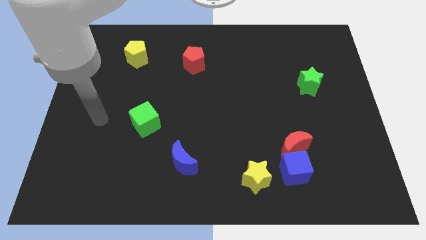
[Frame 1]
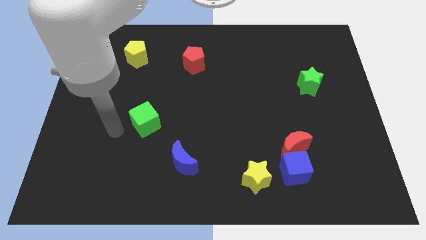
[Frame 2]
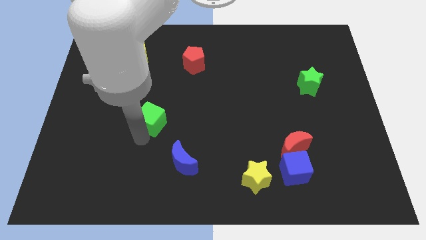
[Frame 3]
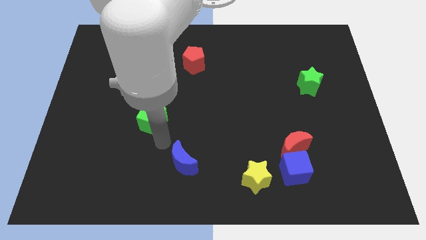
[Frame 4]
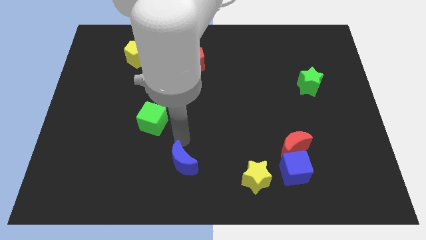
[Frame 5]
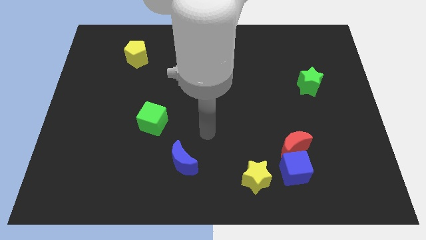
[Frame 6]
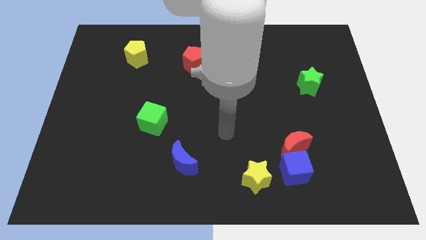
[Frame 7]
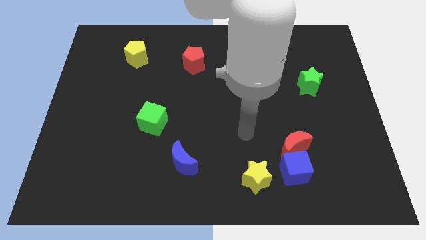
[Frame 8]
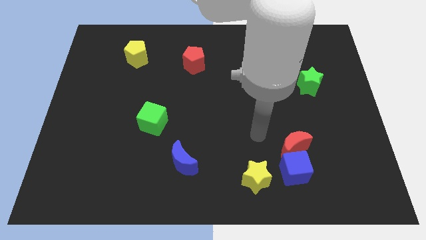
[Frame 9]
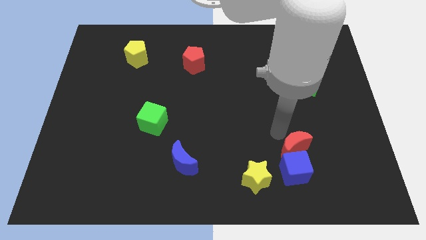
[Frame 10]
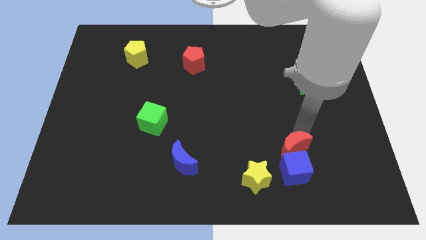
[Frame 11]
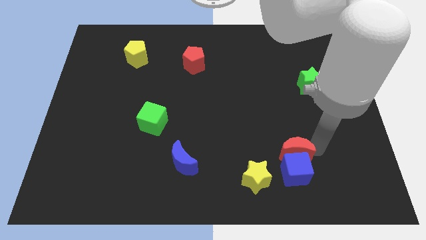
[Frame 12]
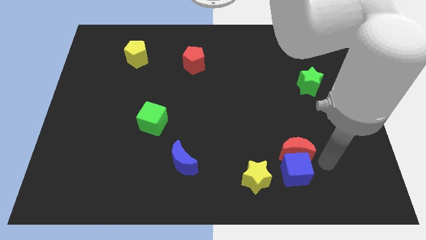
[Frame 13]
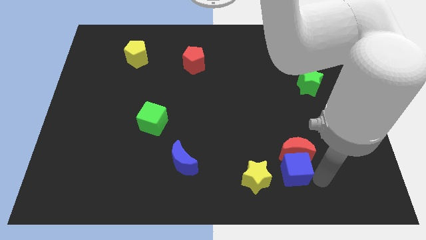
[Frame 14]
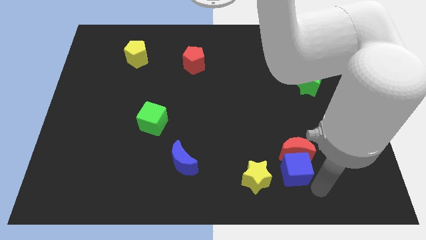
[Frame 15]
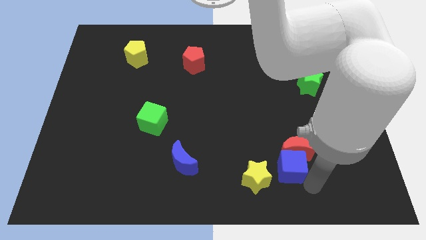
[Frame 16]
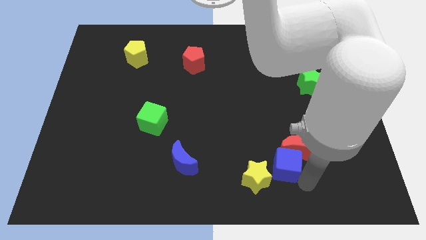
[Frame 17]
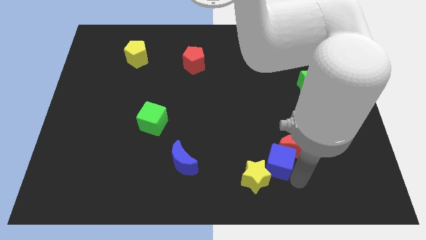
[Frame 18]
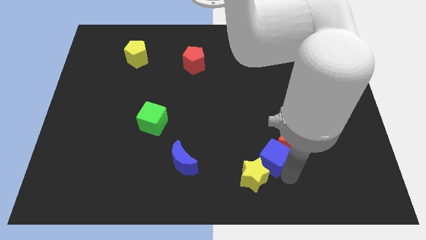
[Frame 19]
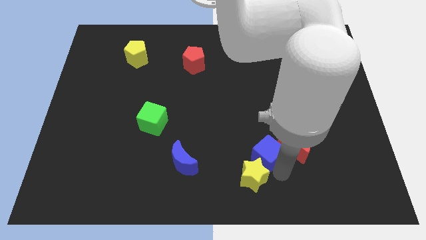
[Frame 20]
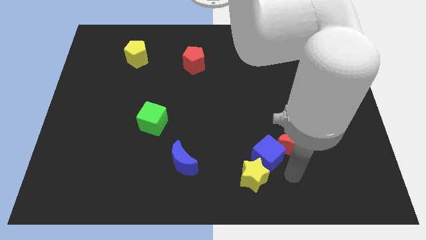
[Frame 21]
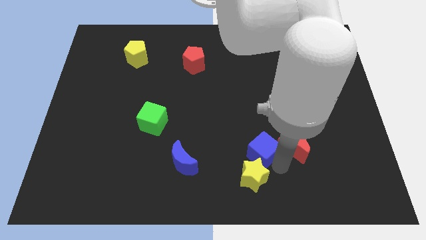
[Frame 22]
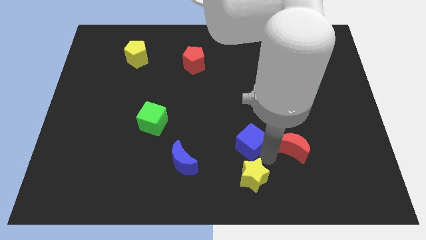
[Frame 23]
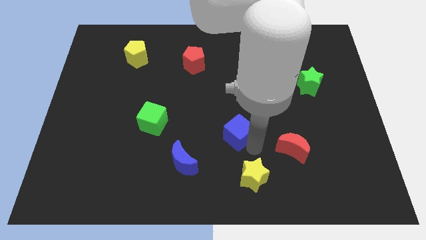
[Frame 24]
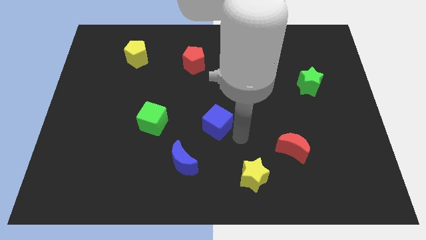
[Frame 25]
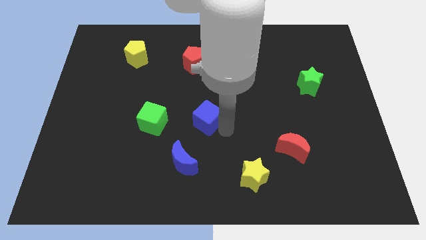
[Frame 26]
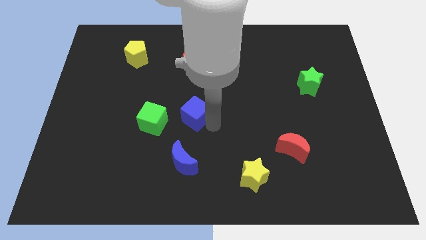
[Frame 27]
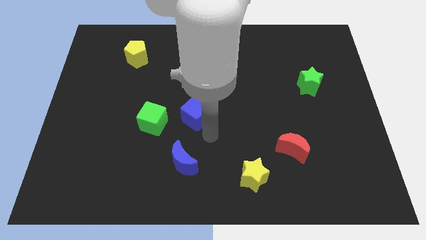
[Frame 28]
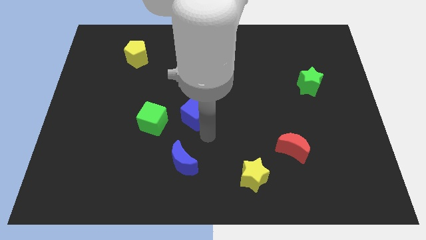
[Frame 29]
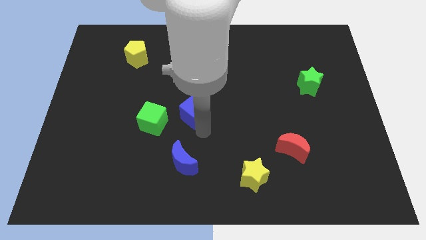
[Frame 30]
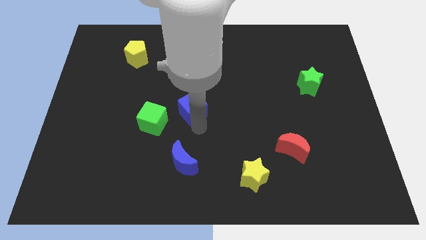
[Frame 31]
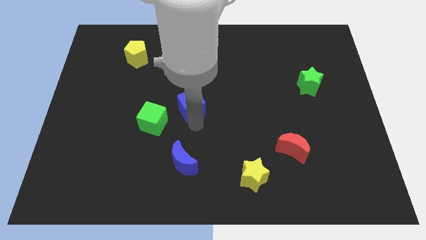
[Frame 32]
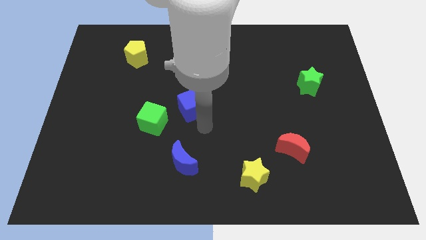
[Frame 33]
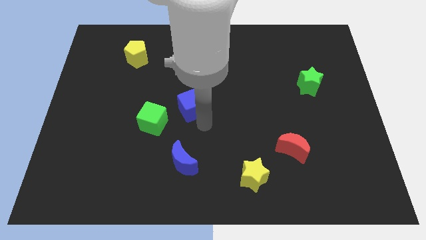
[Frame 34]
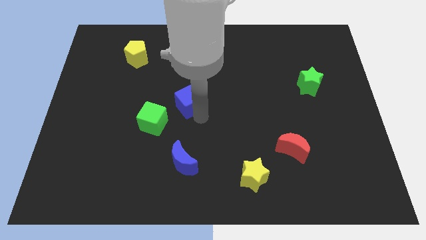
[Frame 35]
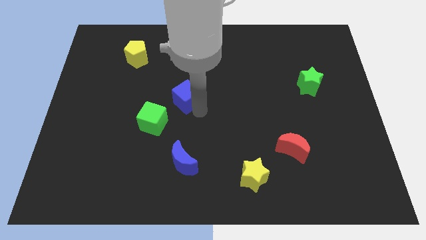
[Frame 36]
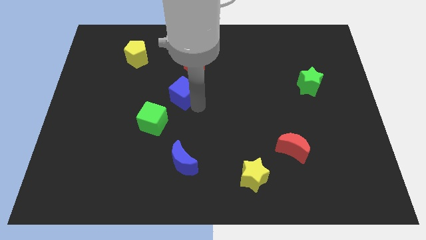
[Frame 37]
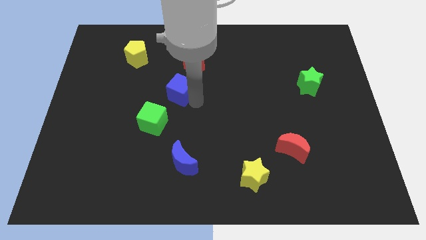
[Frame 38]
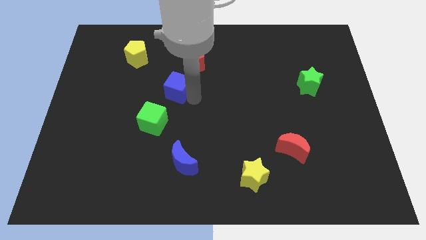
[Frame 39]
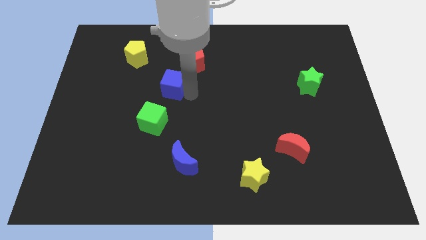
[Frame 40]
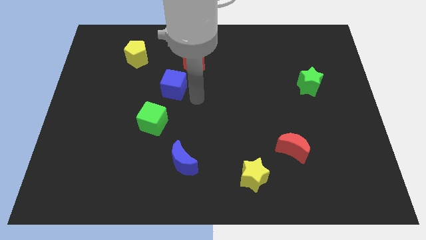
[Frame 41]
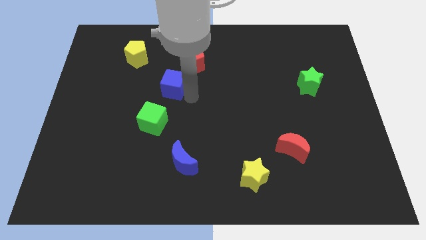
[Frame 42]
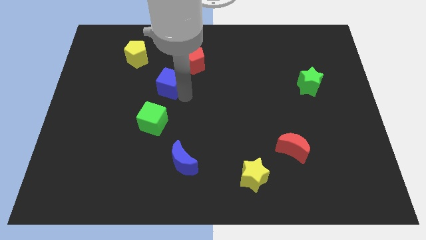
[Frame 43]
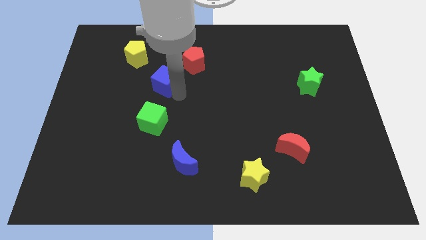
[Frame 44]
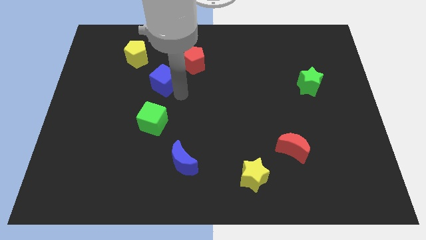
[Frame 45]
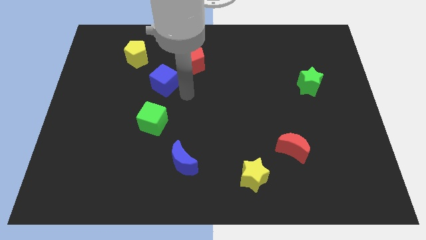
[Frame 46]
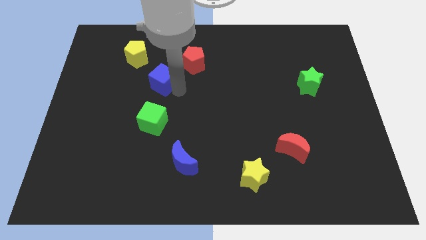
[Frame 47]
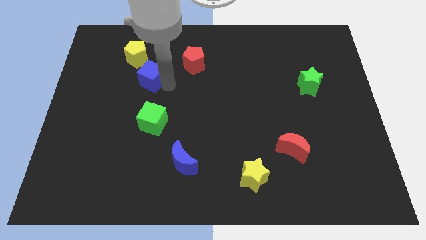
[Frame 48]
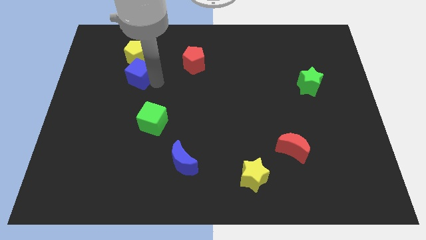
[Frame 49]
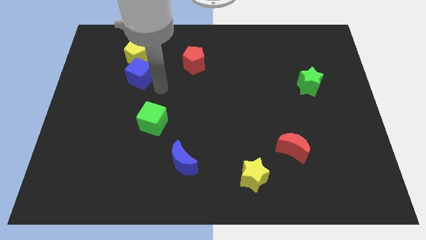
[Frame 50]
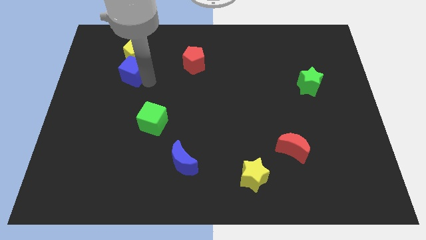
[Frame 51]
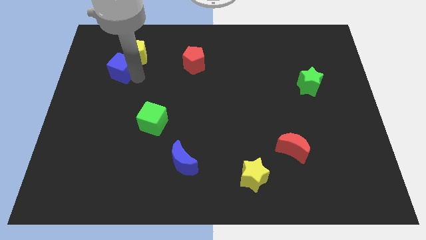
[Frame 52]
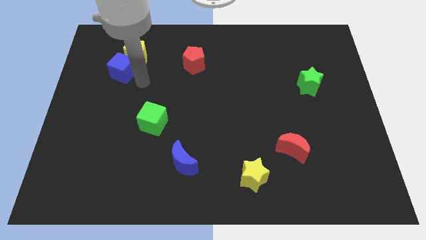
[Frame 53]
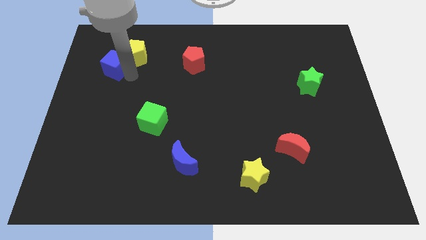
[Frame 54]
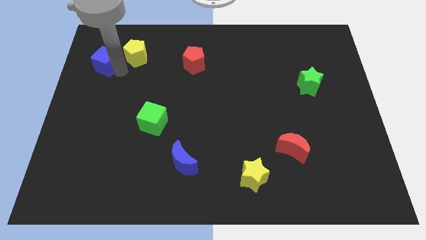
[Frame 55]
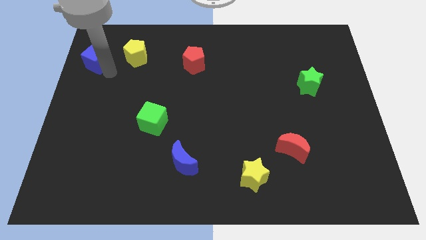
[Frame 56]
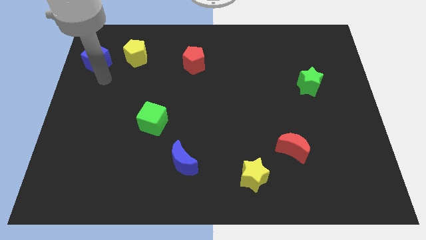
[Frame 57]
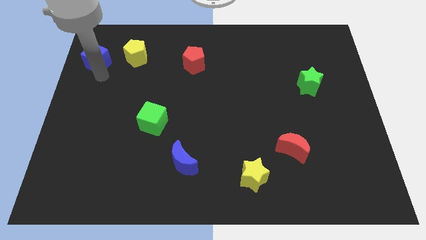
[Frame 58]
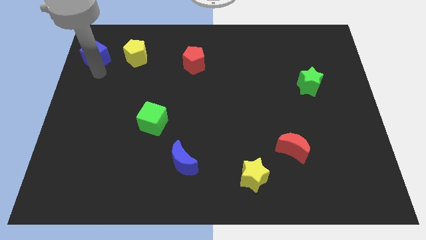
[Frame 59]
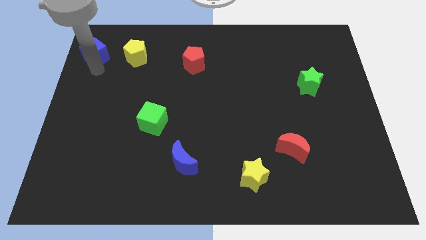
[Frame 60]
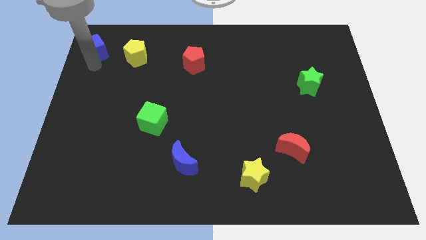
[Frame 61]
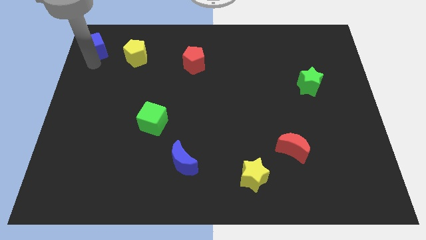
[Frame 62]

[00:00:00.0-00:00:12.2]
put the blue cube to the top left

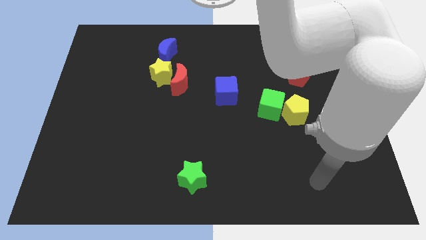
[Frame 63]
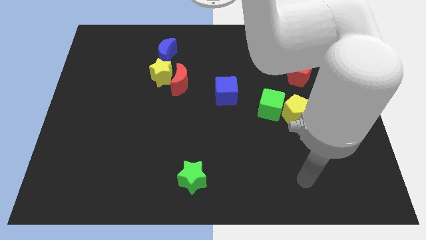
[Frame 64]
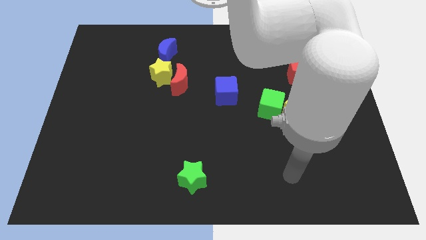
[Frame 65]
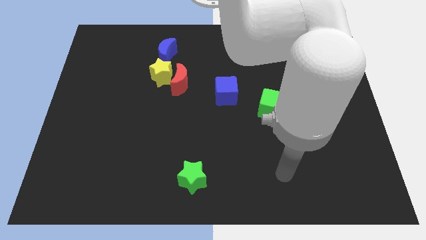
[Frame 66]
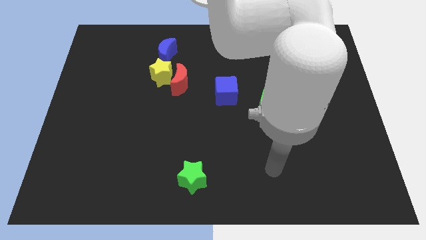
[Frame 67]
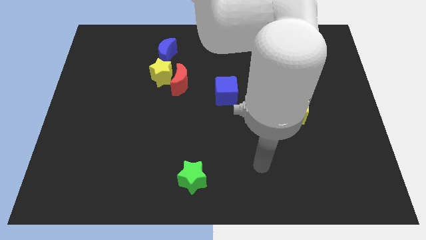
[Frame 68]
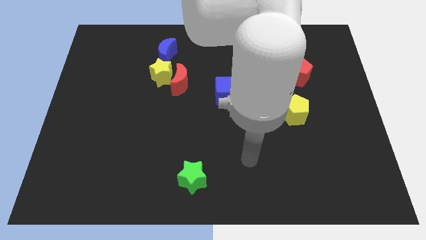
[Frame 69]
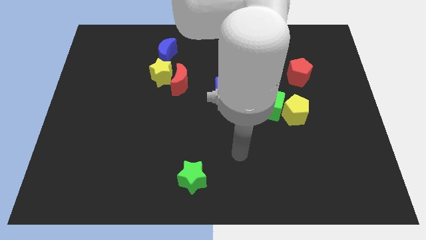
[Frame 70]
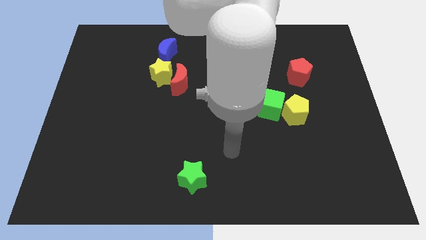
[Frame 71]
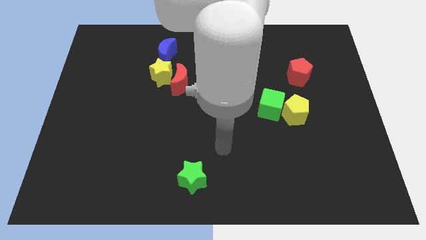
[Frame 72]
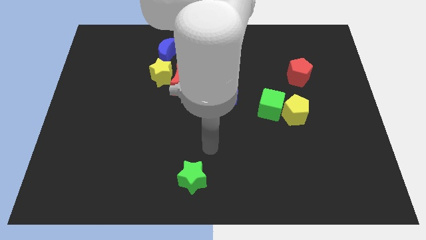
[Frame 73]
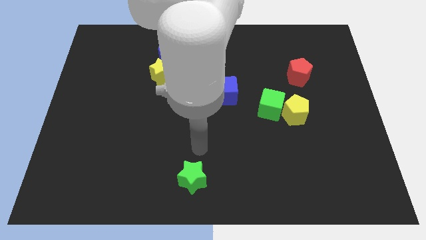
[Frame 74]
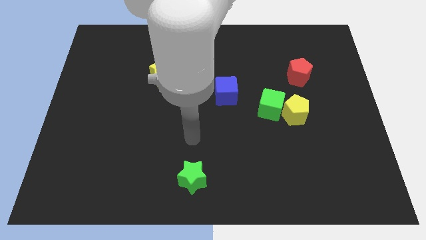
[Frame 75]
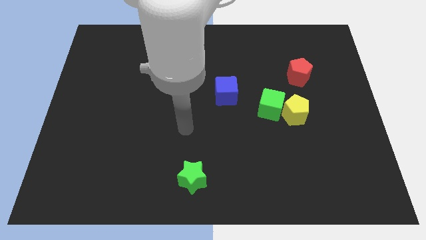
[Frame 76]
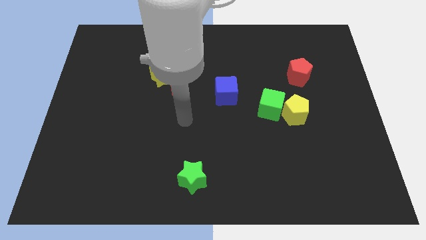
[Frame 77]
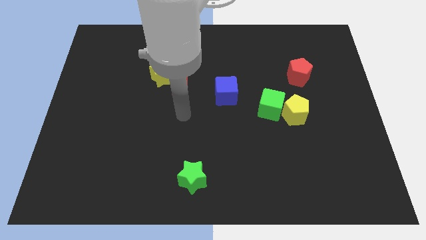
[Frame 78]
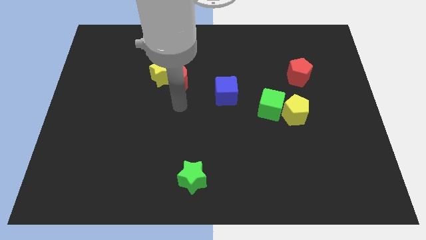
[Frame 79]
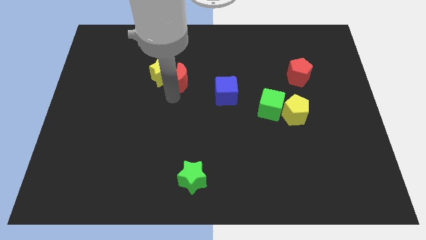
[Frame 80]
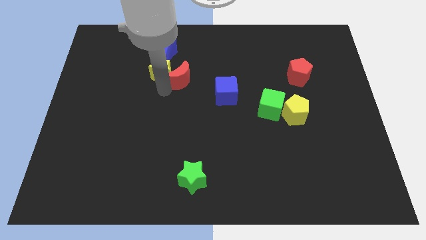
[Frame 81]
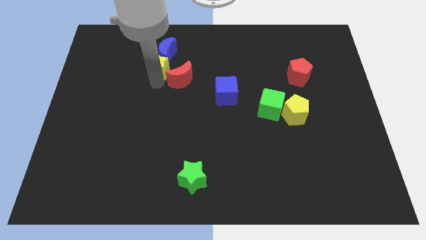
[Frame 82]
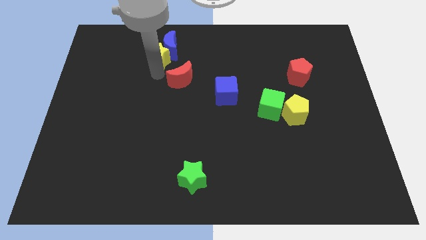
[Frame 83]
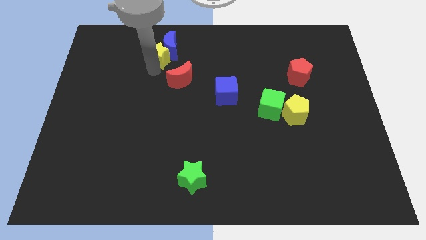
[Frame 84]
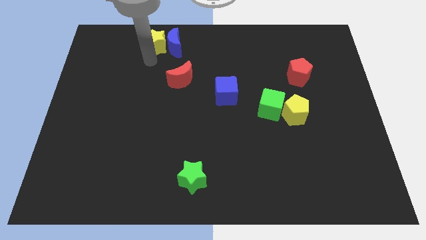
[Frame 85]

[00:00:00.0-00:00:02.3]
push the blue moon to the top
